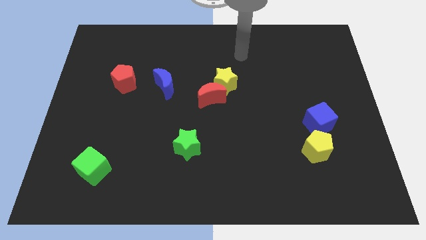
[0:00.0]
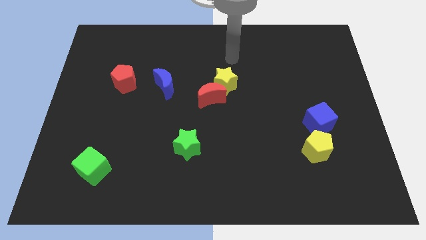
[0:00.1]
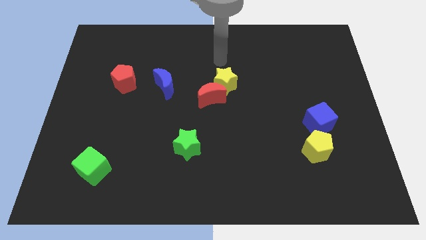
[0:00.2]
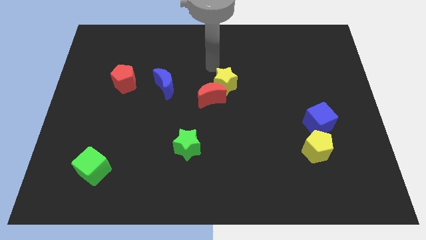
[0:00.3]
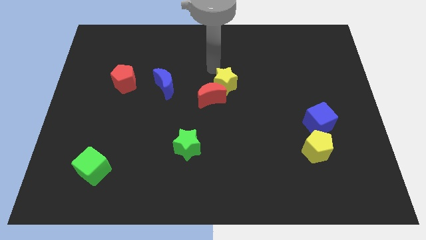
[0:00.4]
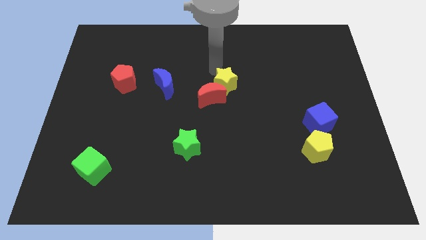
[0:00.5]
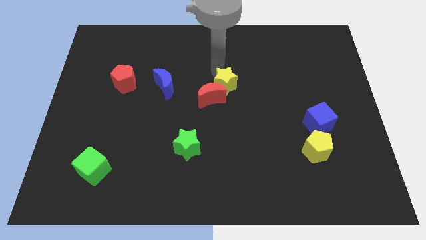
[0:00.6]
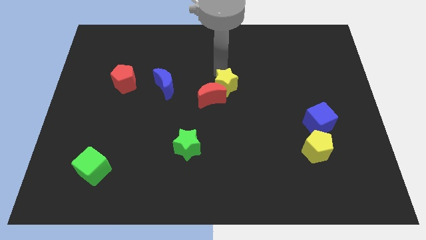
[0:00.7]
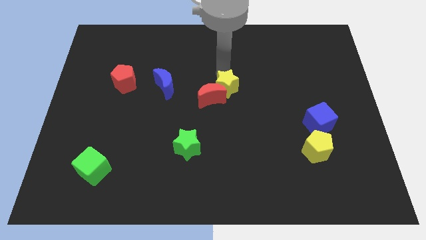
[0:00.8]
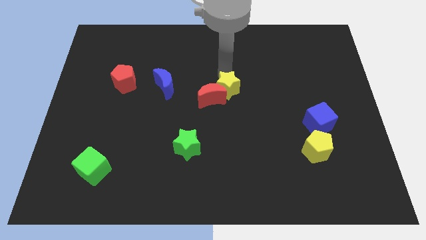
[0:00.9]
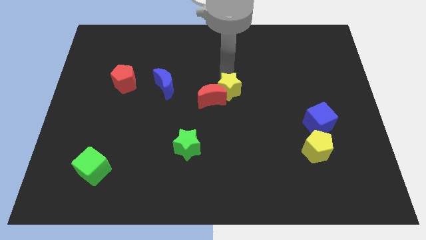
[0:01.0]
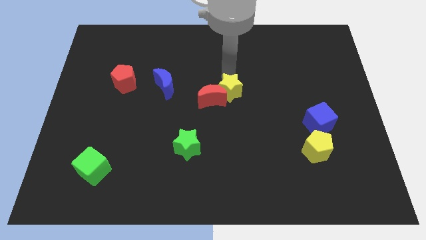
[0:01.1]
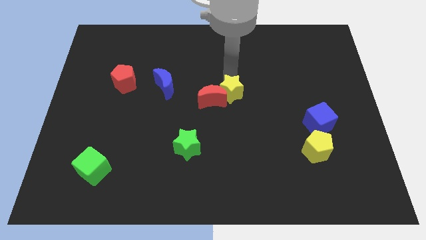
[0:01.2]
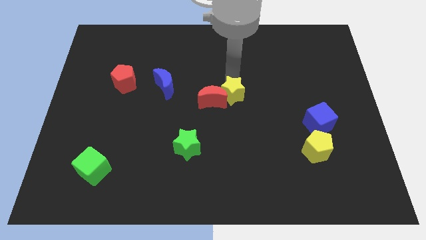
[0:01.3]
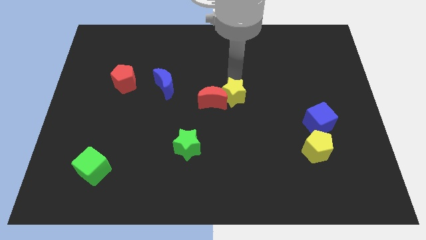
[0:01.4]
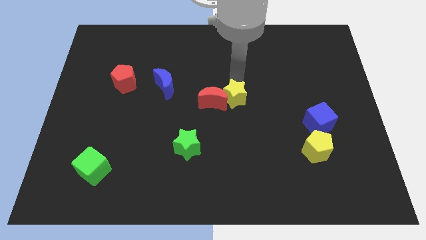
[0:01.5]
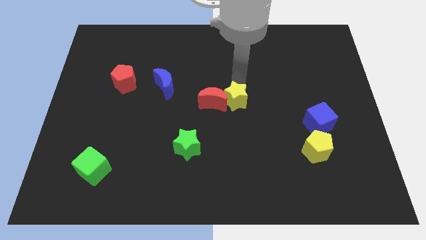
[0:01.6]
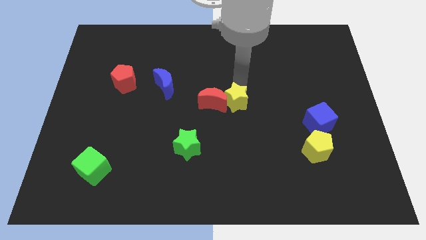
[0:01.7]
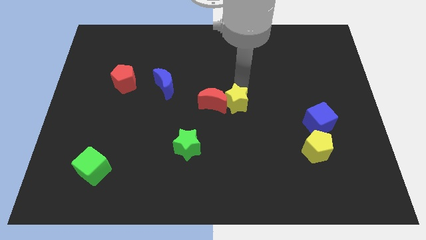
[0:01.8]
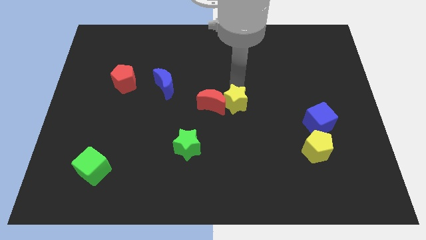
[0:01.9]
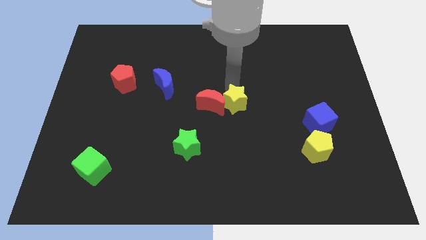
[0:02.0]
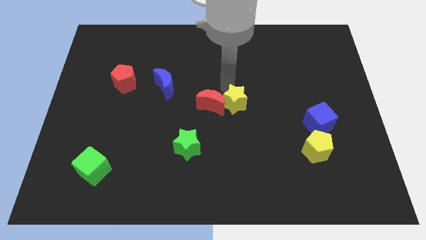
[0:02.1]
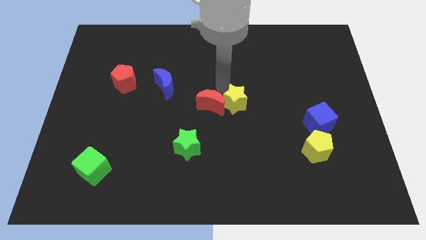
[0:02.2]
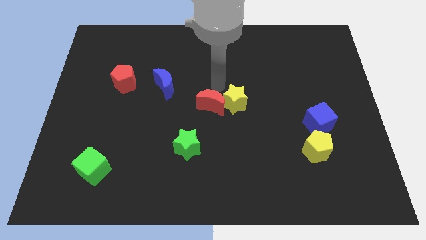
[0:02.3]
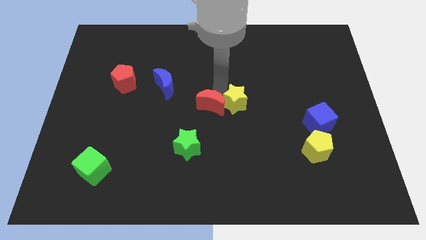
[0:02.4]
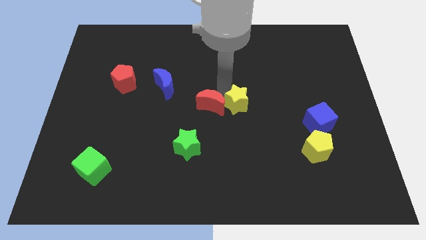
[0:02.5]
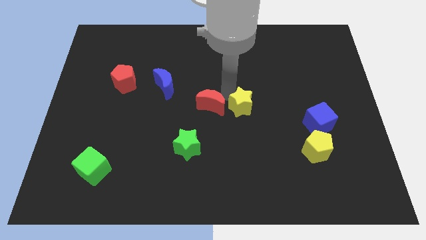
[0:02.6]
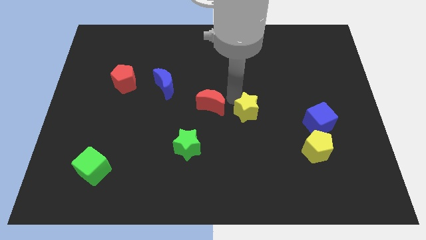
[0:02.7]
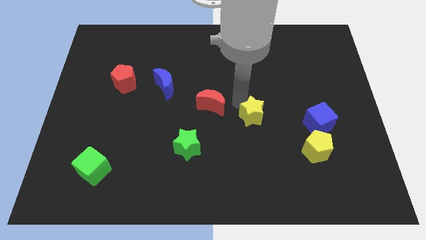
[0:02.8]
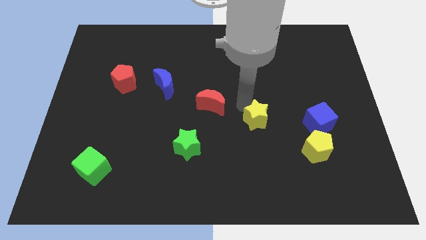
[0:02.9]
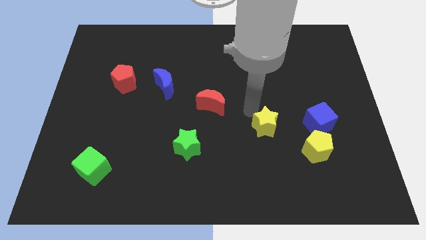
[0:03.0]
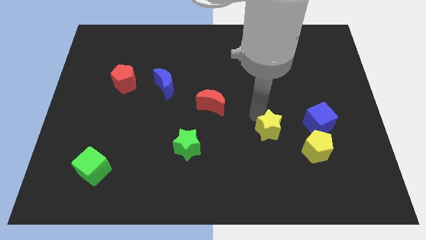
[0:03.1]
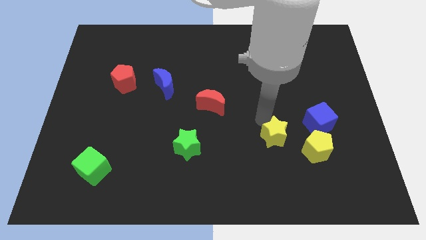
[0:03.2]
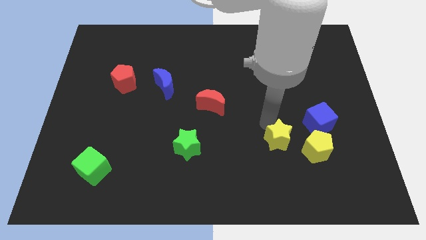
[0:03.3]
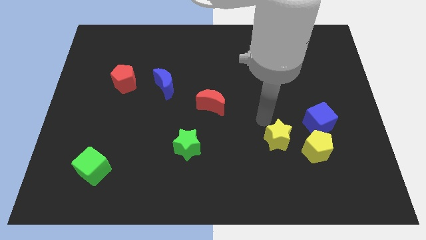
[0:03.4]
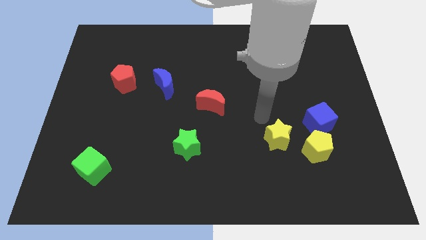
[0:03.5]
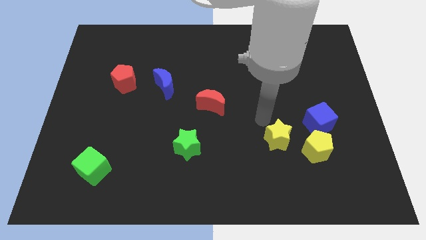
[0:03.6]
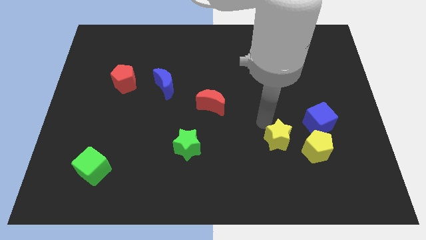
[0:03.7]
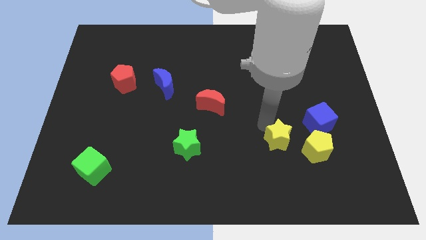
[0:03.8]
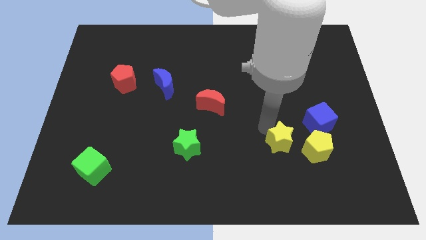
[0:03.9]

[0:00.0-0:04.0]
push the yellow star down and right

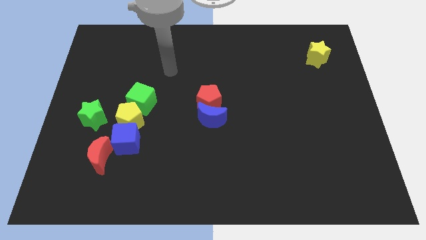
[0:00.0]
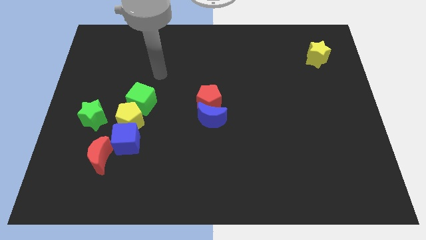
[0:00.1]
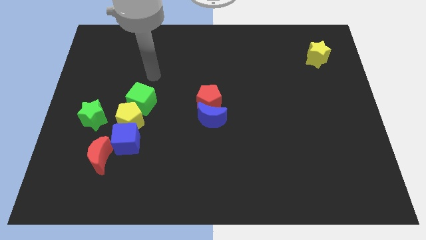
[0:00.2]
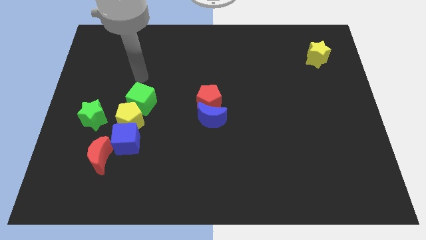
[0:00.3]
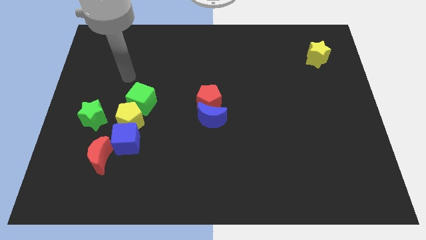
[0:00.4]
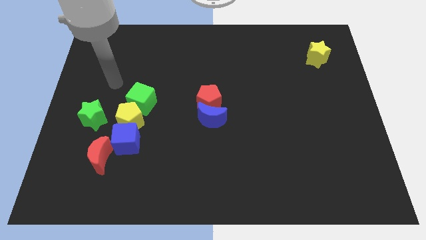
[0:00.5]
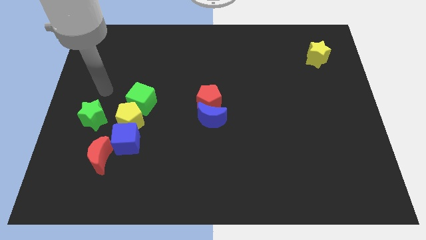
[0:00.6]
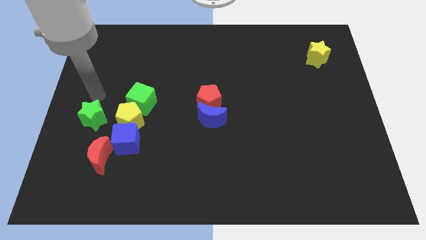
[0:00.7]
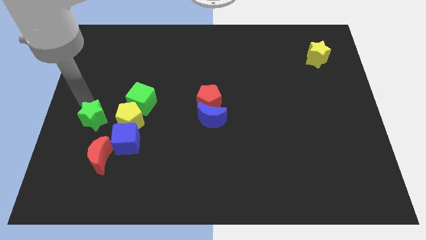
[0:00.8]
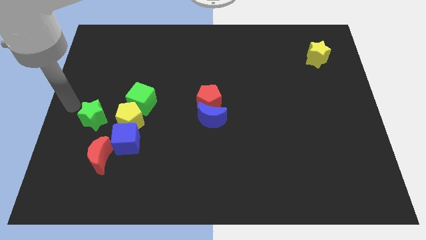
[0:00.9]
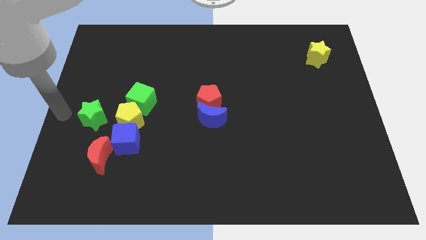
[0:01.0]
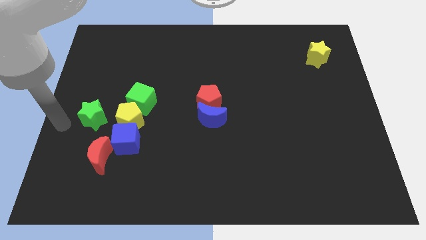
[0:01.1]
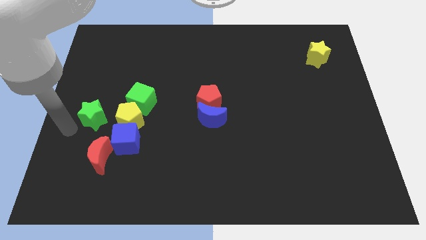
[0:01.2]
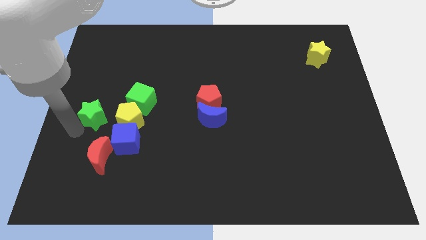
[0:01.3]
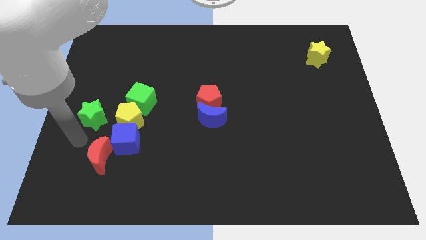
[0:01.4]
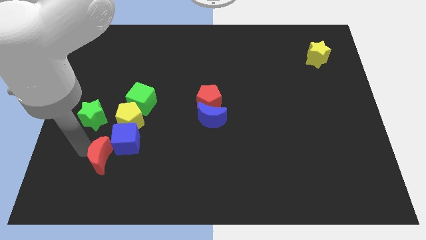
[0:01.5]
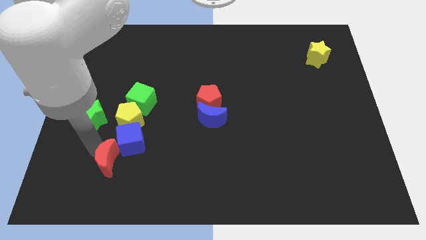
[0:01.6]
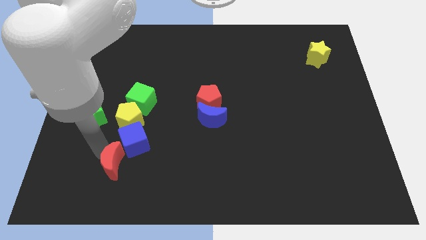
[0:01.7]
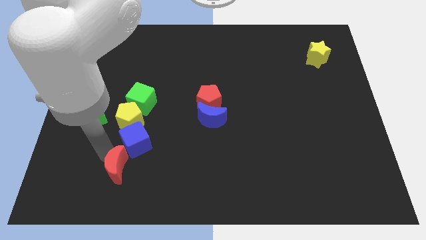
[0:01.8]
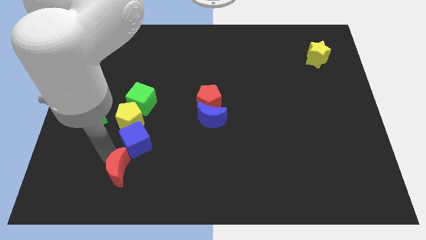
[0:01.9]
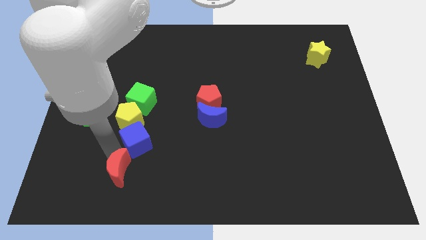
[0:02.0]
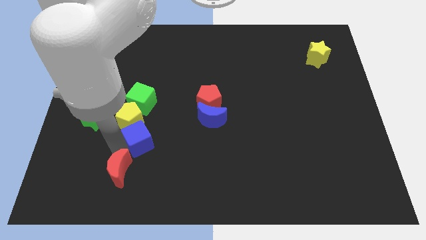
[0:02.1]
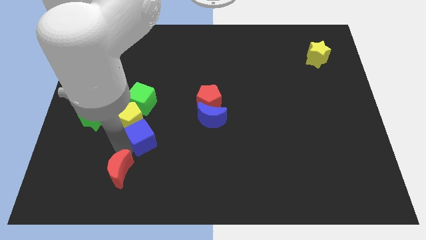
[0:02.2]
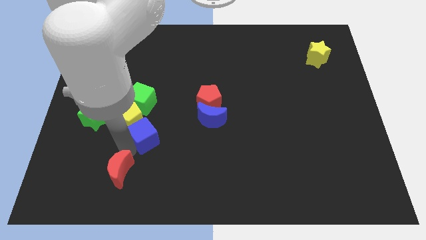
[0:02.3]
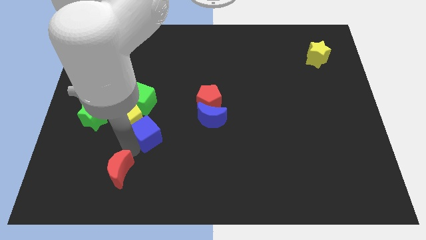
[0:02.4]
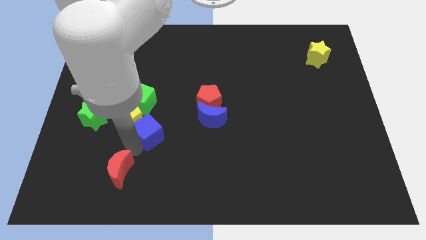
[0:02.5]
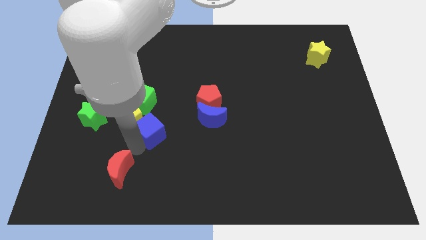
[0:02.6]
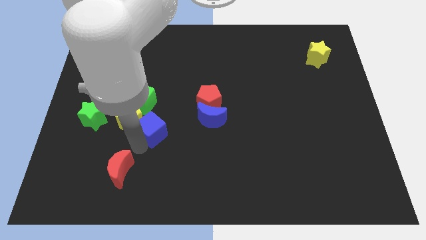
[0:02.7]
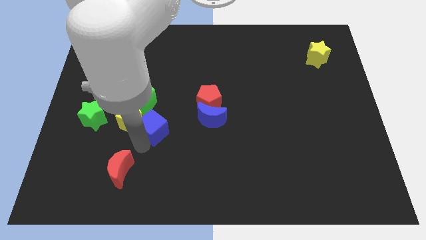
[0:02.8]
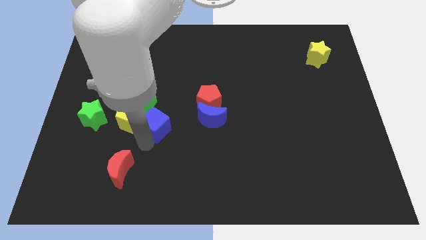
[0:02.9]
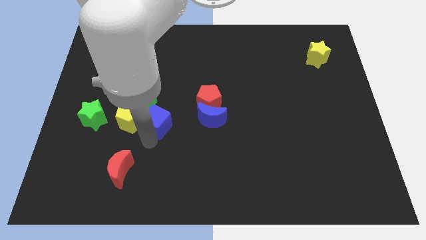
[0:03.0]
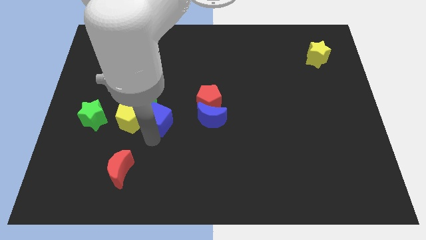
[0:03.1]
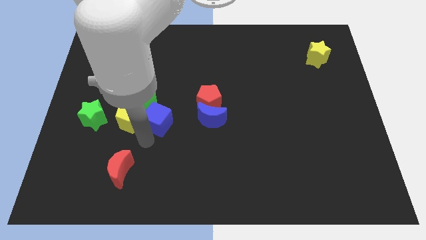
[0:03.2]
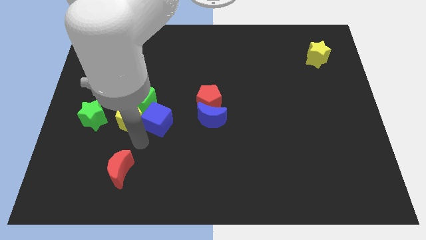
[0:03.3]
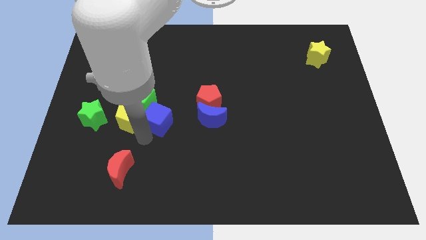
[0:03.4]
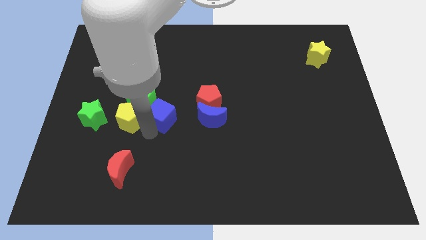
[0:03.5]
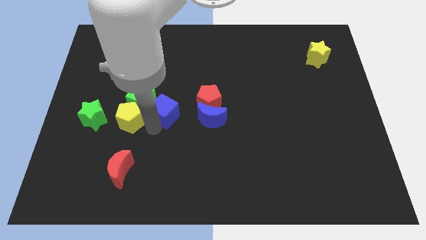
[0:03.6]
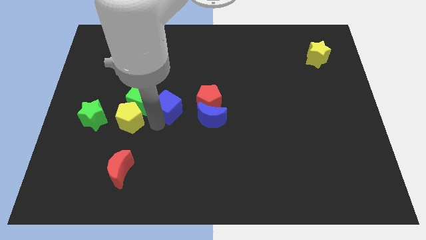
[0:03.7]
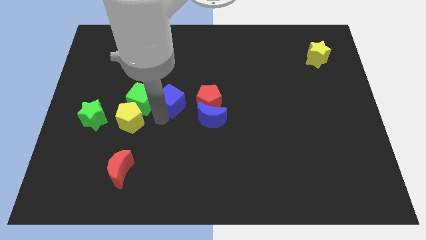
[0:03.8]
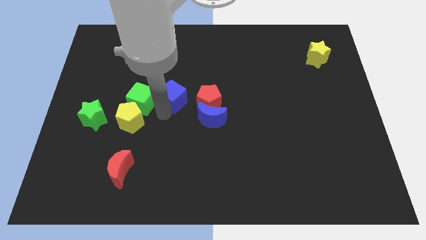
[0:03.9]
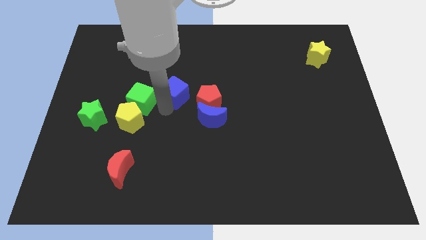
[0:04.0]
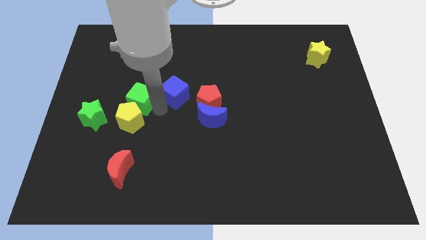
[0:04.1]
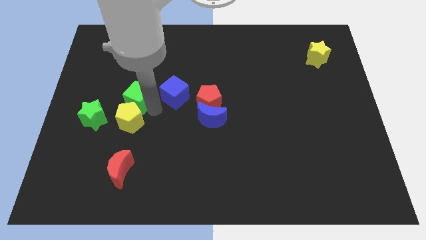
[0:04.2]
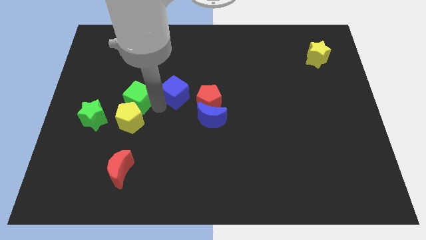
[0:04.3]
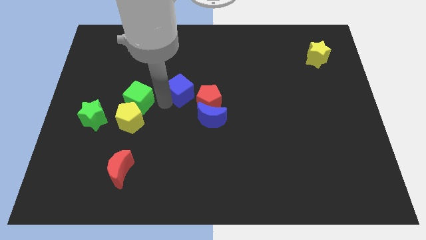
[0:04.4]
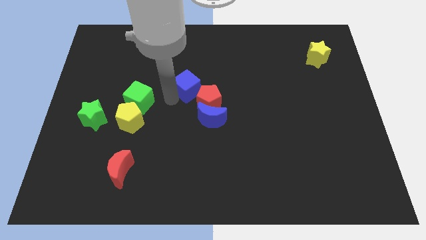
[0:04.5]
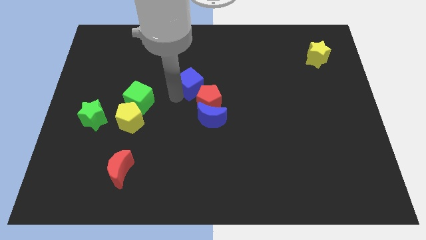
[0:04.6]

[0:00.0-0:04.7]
slide the blue cube diagonally upwards and right
